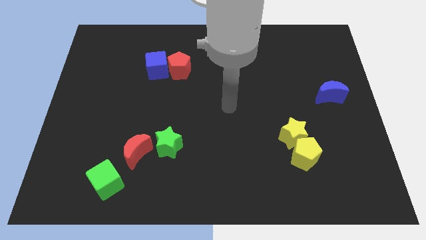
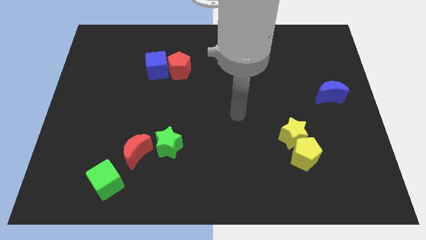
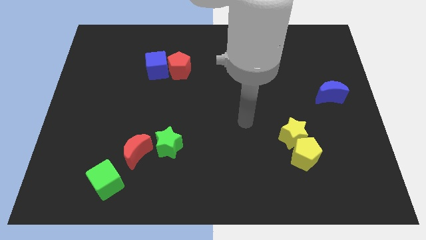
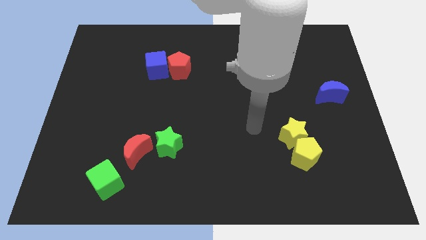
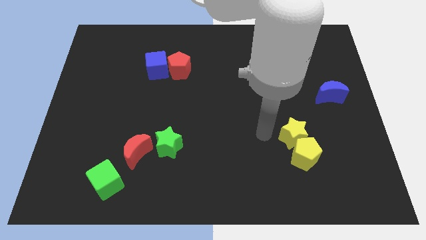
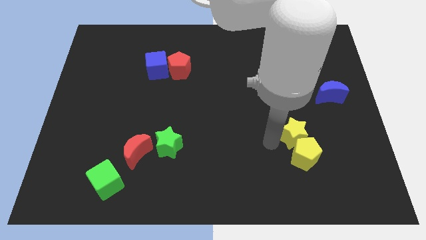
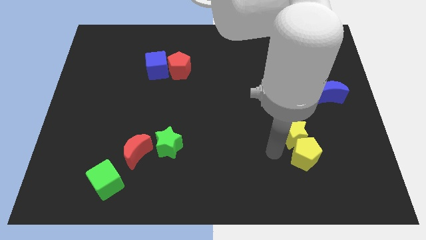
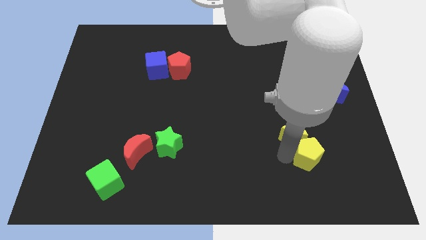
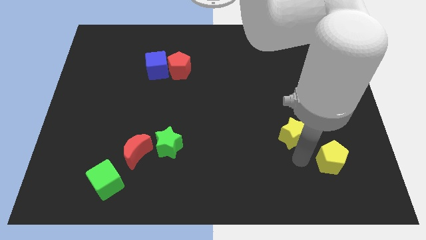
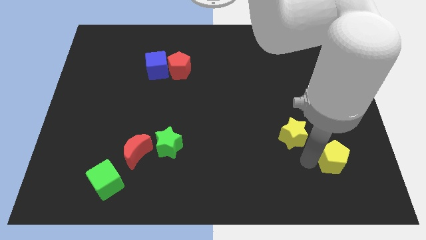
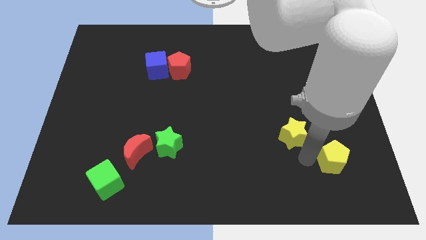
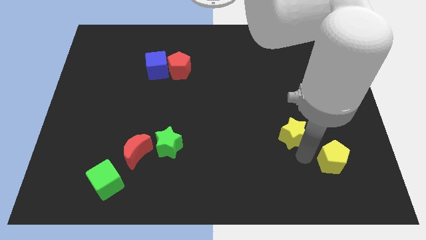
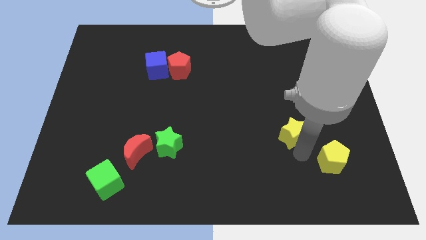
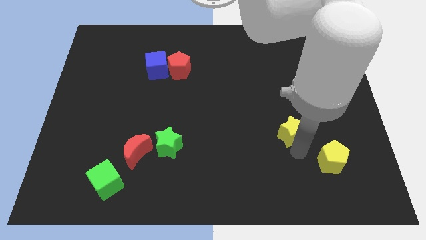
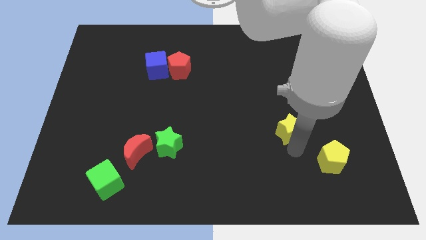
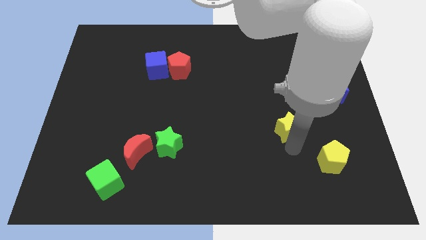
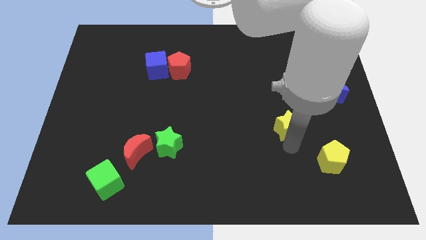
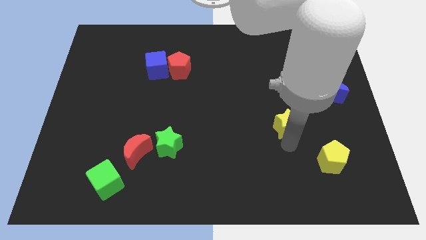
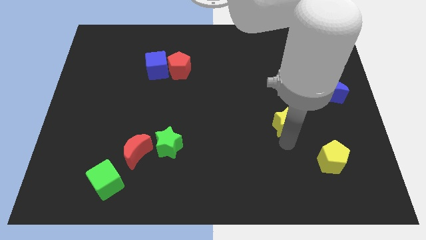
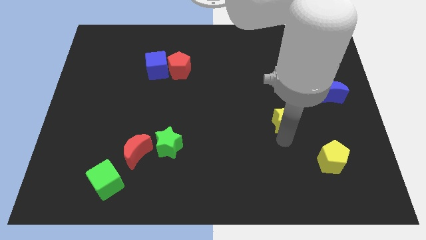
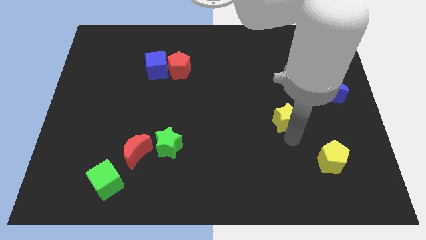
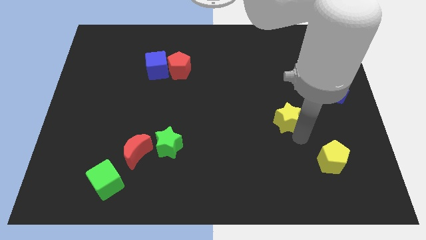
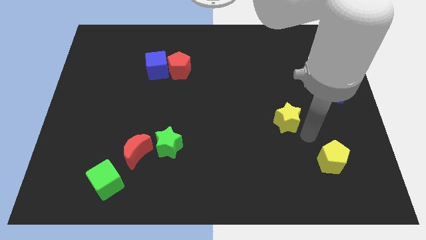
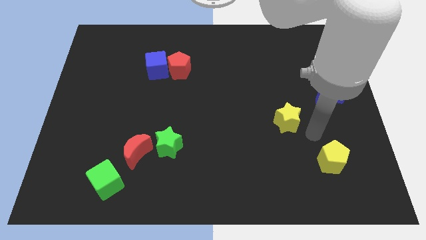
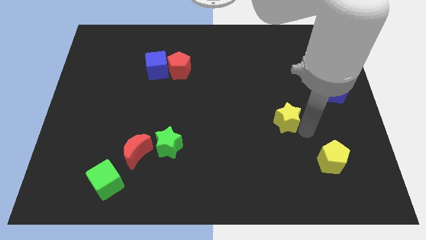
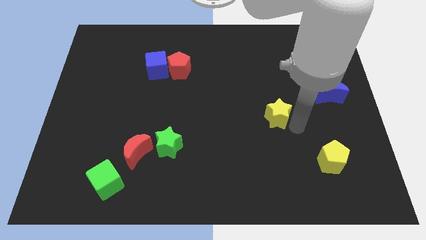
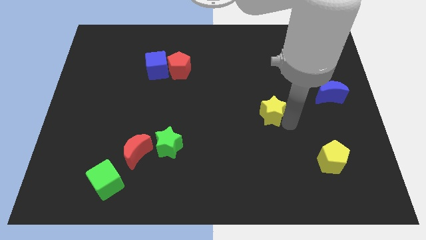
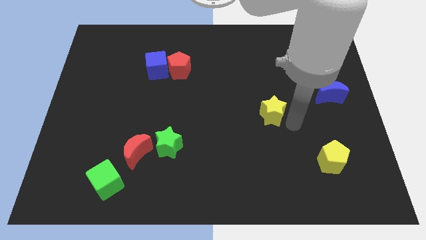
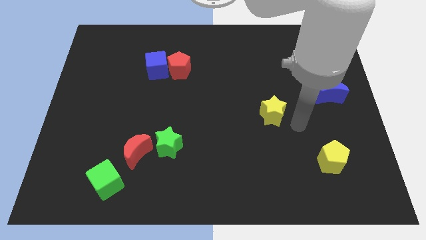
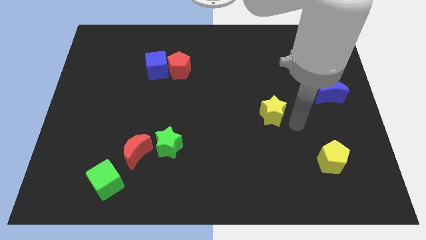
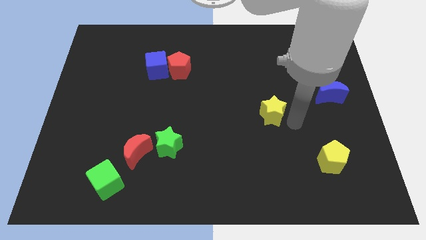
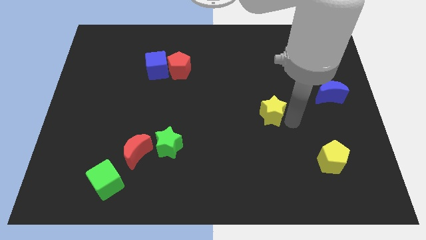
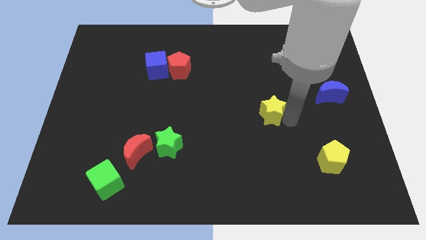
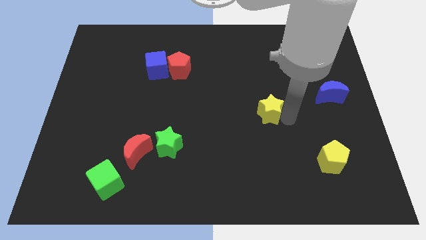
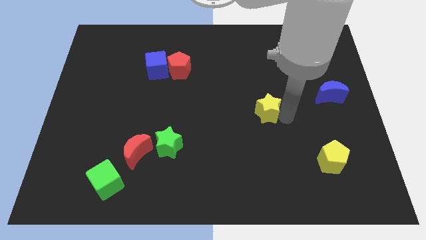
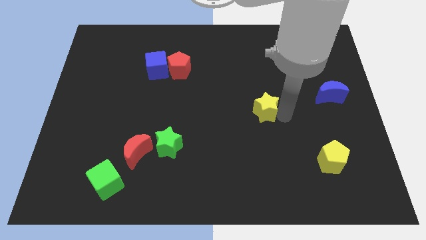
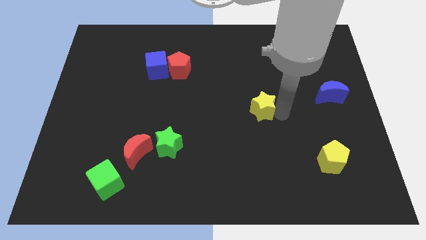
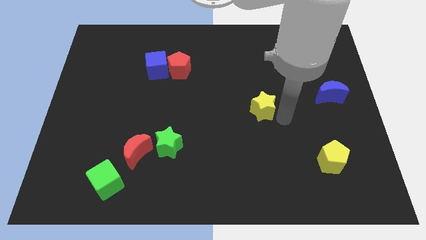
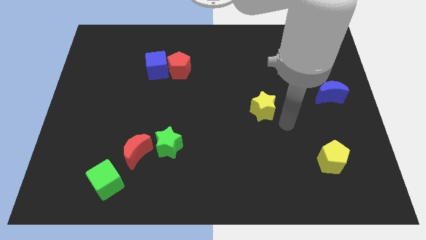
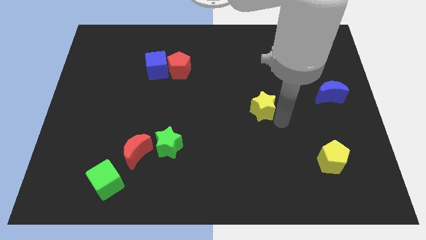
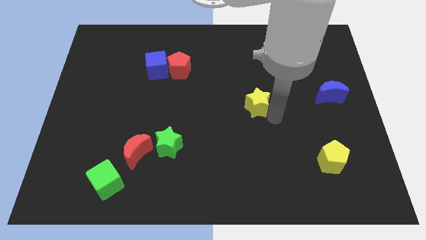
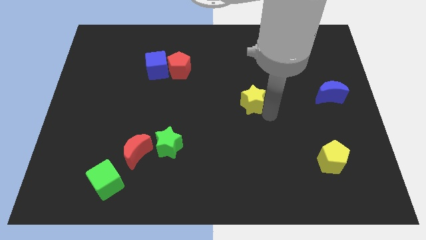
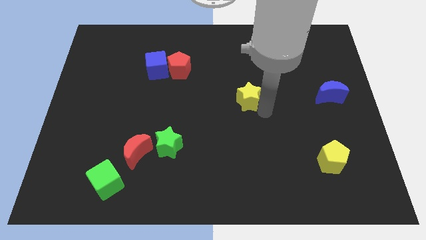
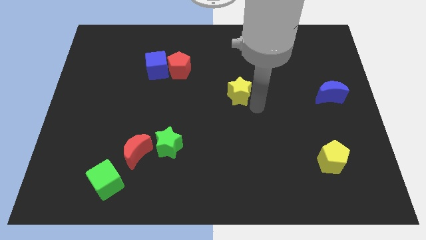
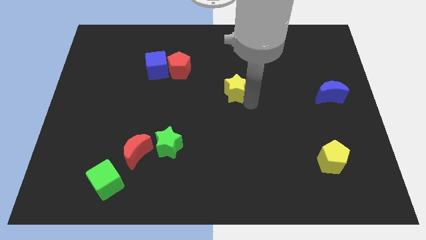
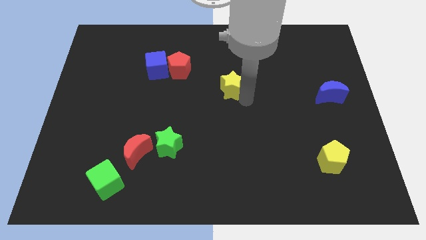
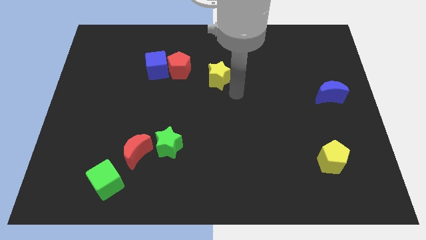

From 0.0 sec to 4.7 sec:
slide the yellow star up and then left

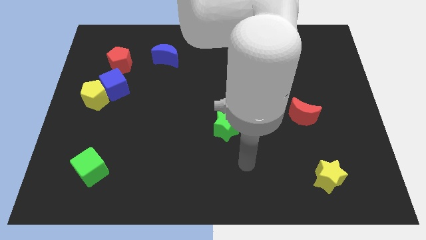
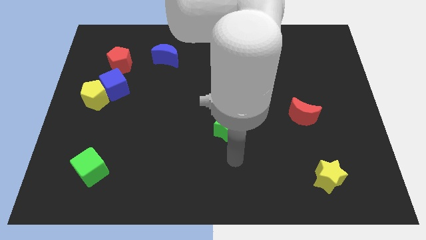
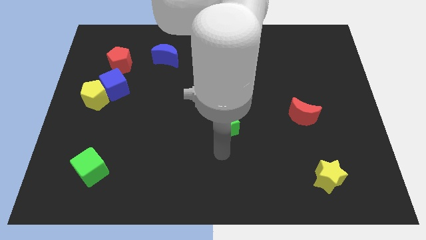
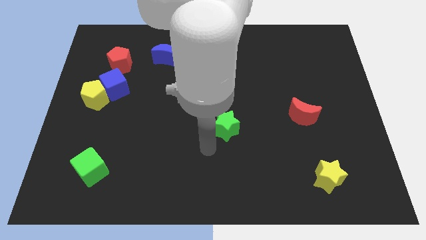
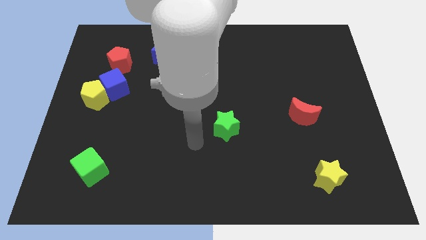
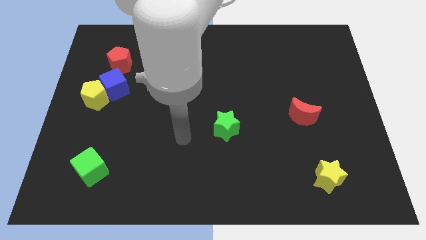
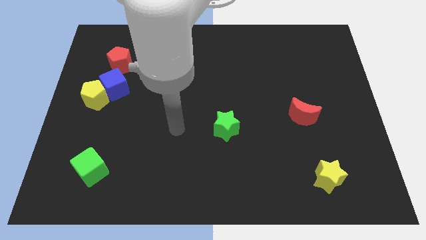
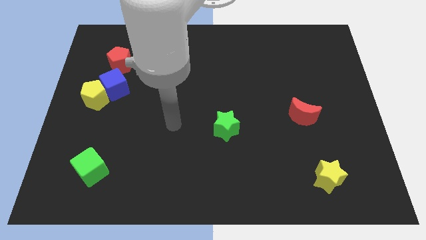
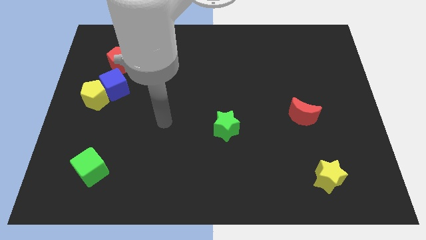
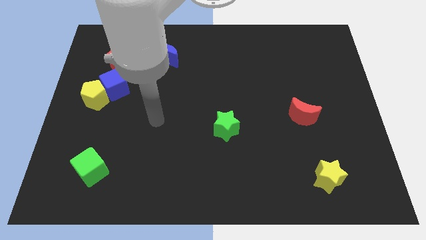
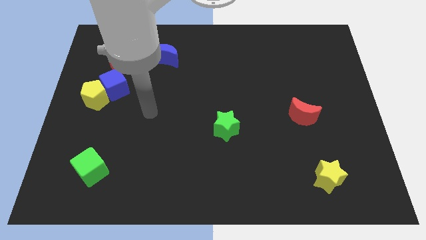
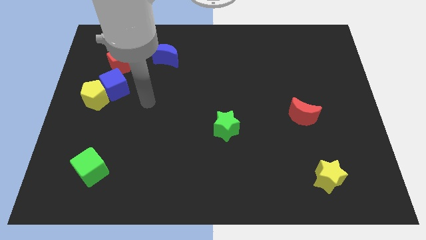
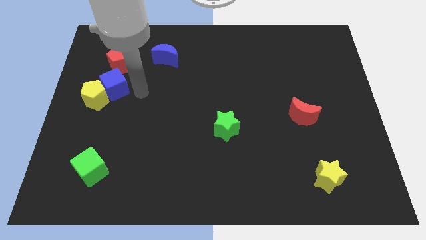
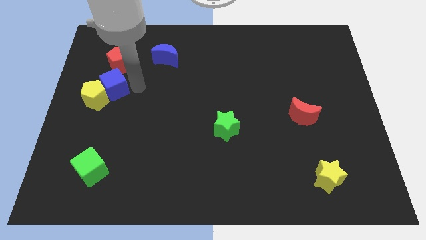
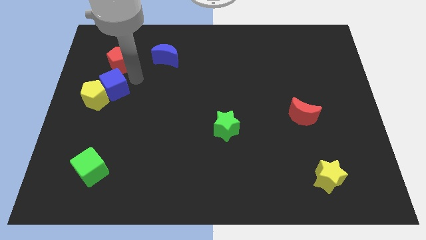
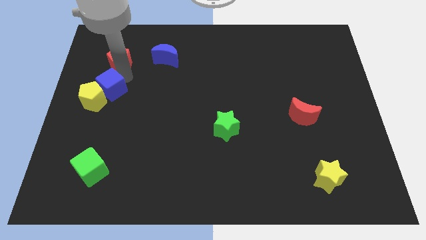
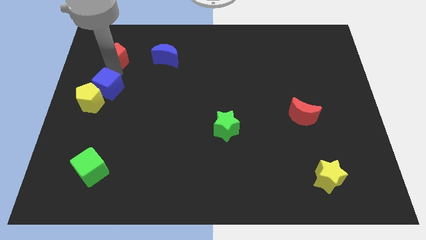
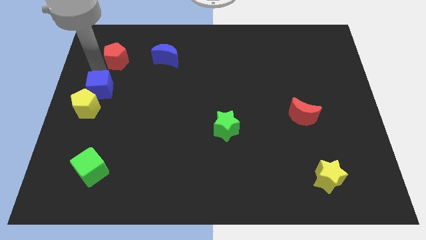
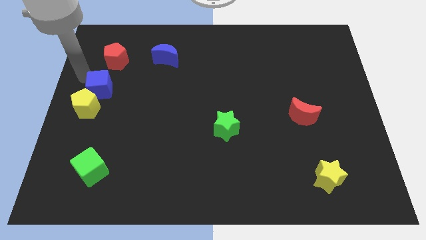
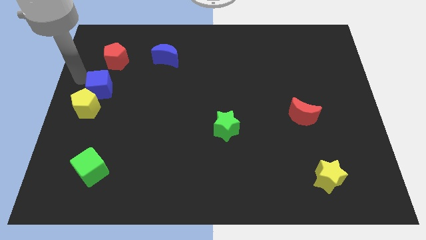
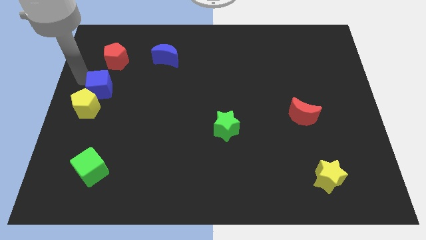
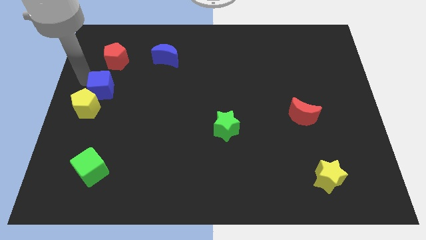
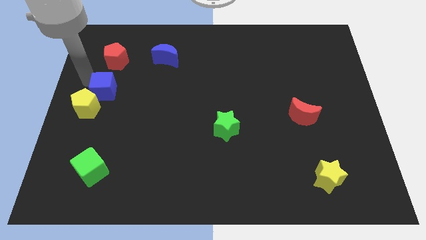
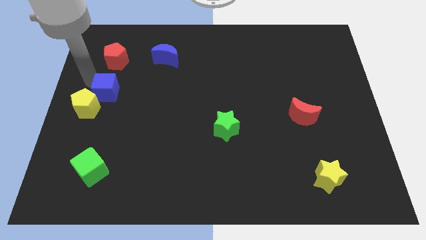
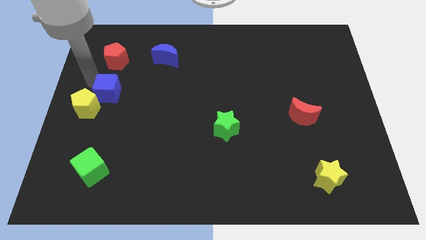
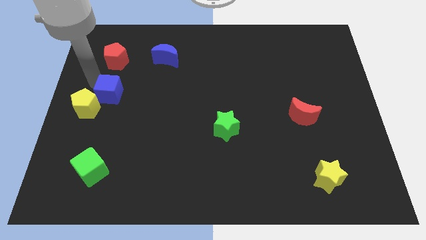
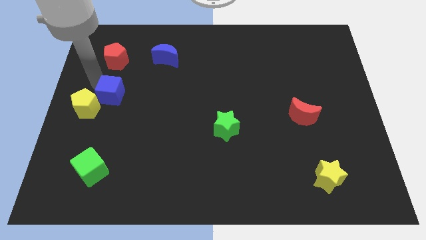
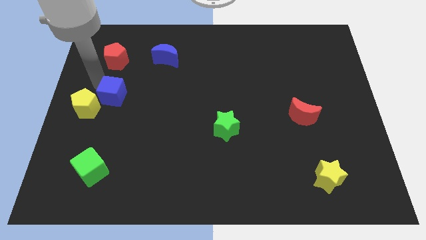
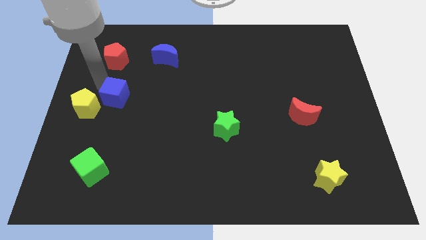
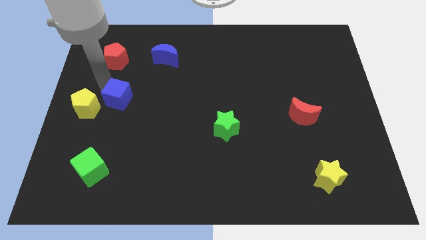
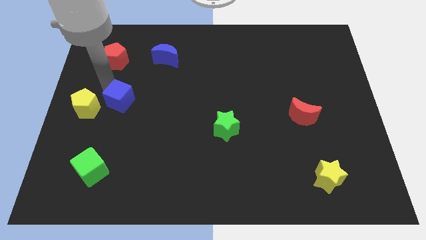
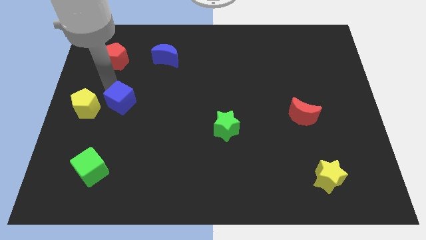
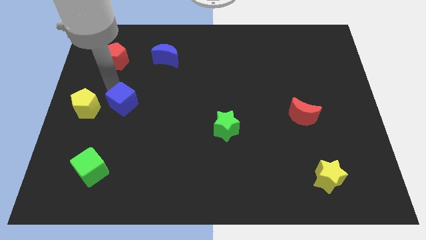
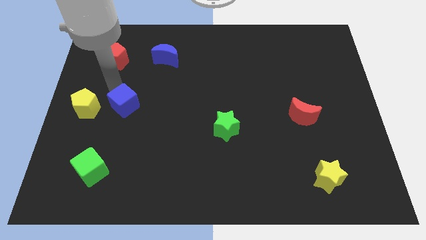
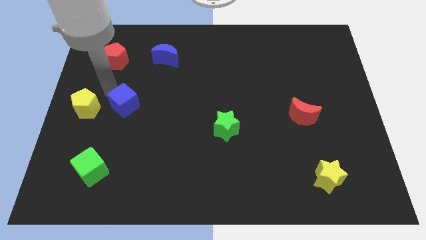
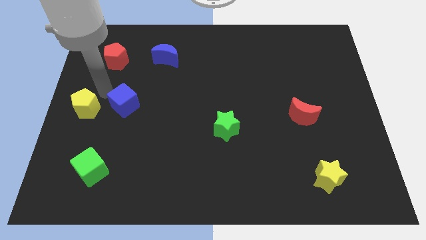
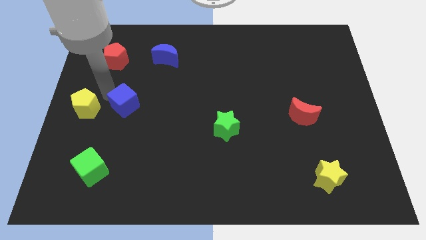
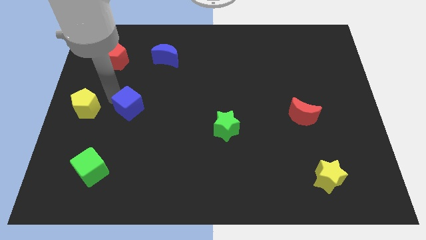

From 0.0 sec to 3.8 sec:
slightly slide the blue cube downwards and right diagonally
